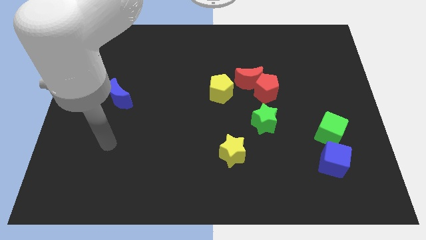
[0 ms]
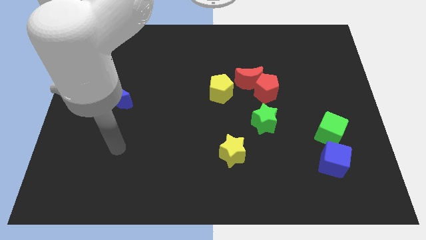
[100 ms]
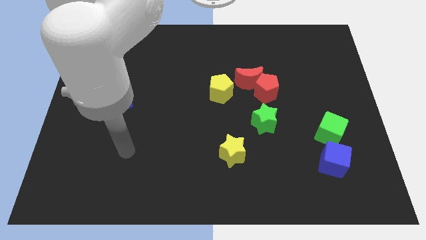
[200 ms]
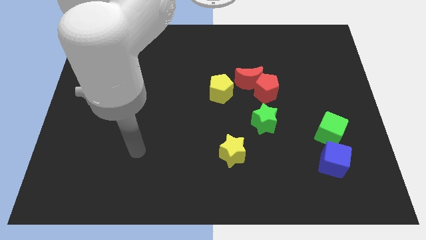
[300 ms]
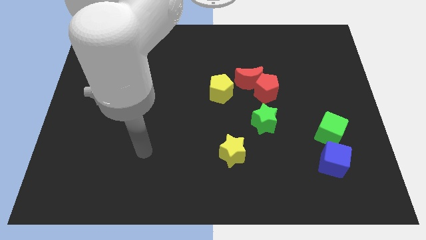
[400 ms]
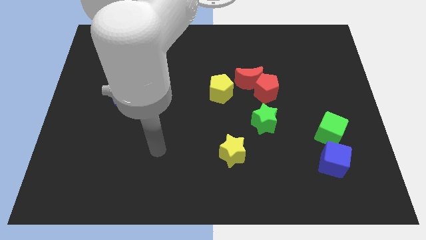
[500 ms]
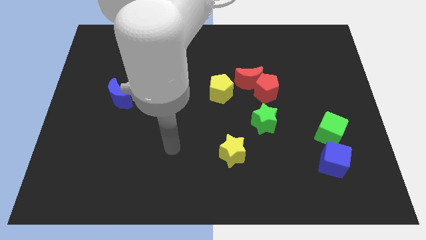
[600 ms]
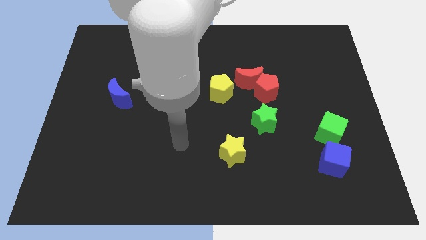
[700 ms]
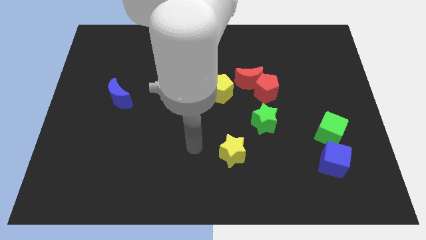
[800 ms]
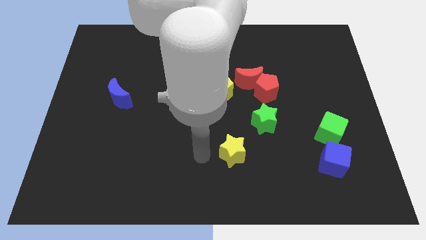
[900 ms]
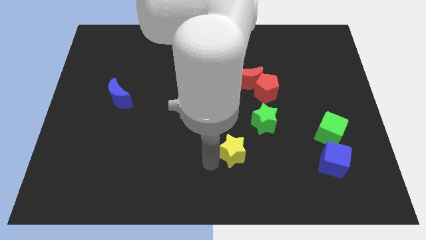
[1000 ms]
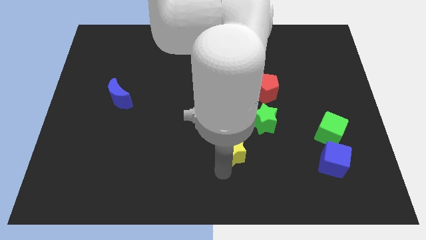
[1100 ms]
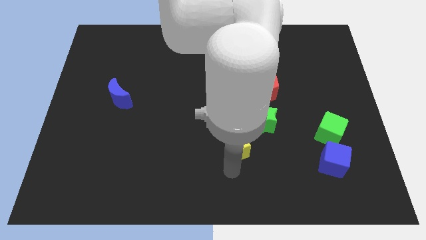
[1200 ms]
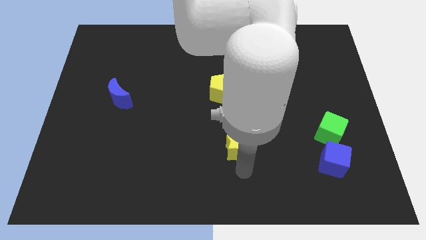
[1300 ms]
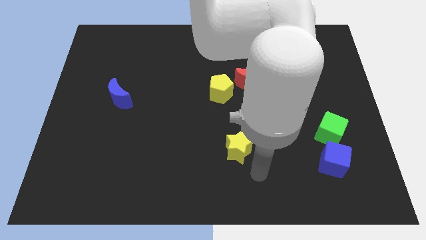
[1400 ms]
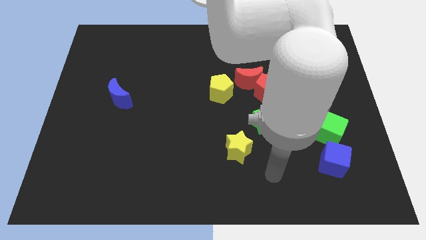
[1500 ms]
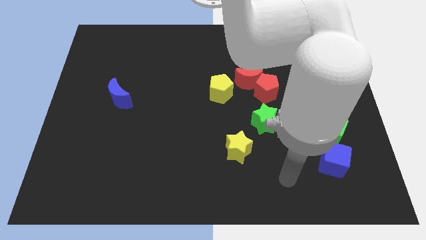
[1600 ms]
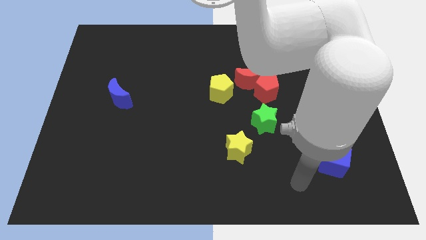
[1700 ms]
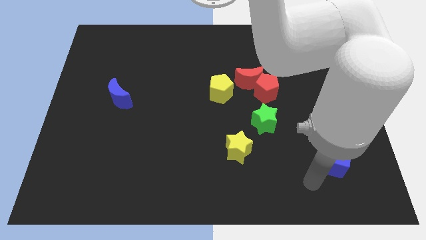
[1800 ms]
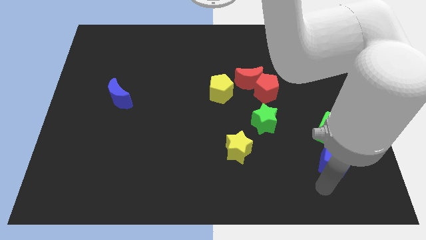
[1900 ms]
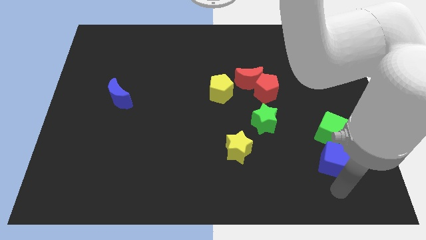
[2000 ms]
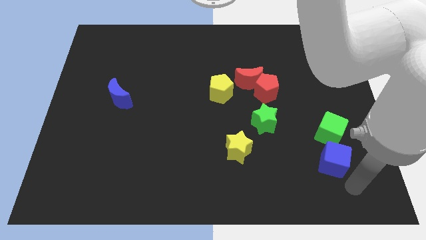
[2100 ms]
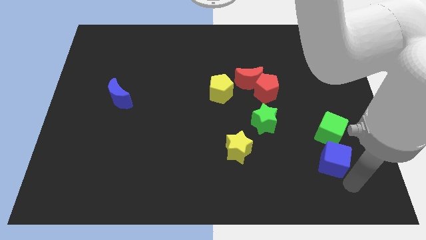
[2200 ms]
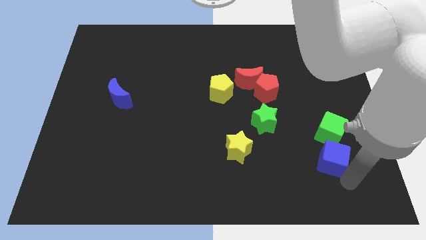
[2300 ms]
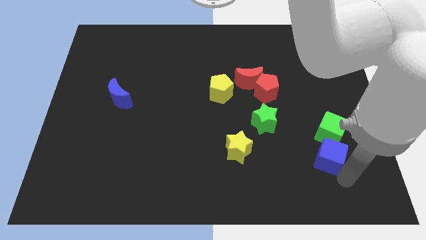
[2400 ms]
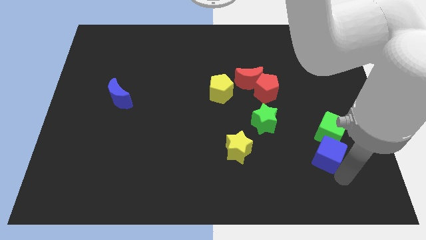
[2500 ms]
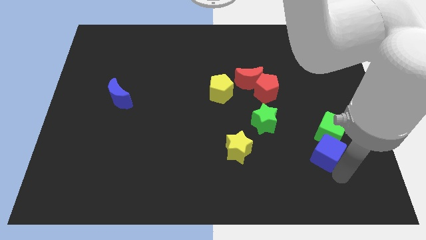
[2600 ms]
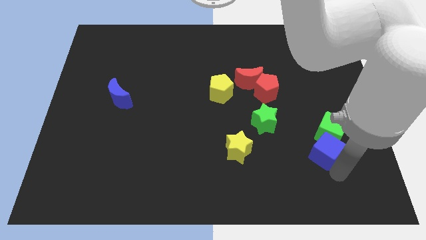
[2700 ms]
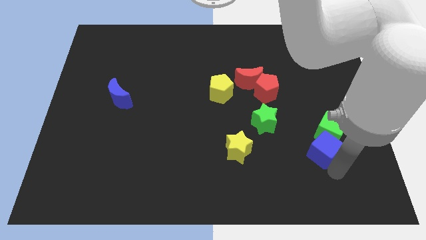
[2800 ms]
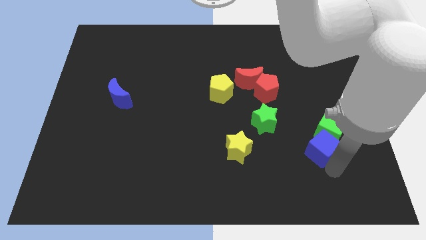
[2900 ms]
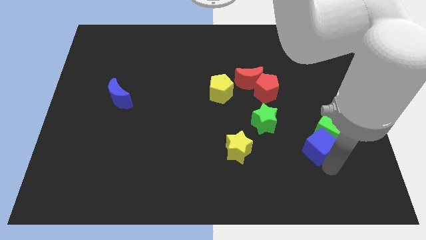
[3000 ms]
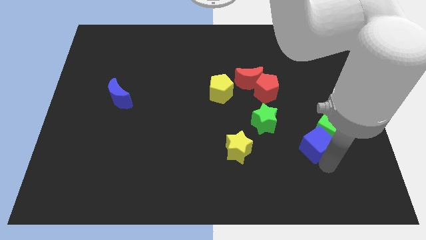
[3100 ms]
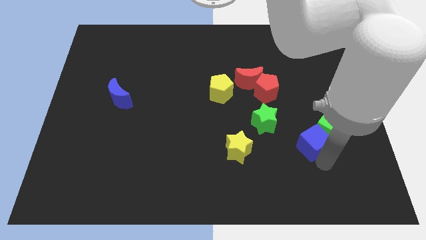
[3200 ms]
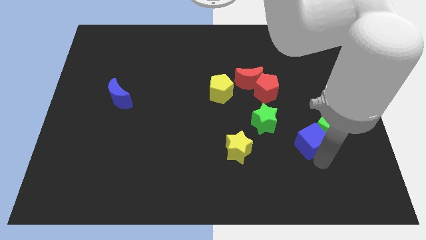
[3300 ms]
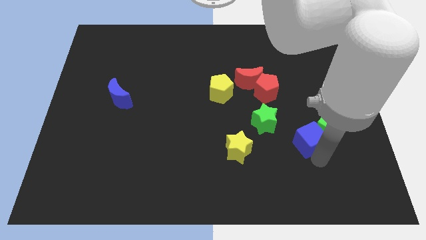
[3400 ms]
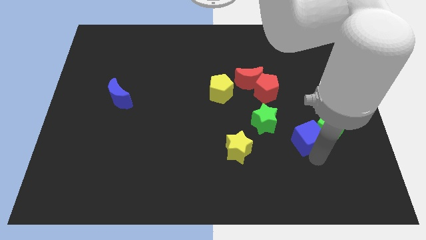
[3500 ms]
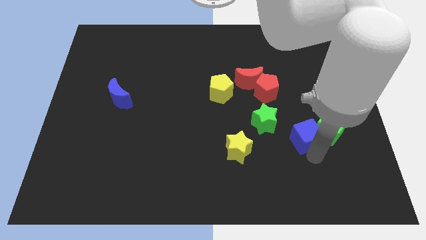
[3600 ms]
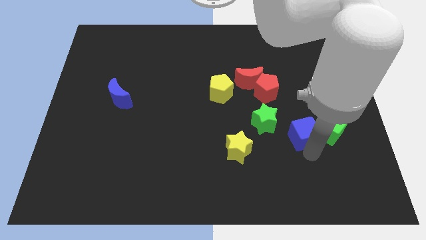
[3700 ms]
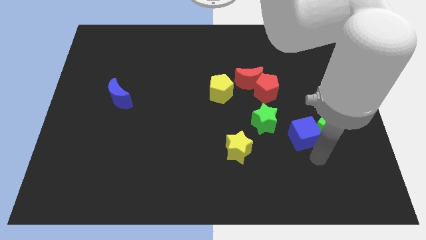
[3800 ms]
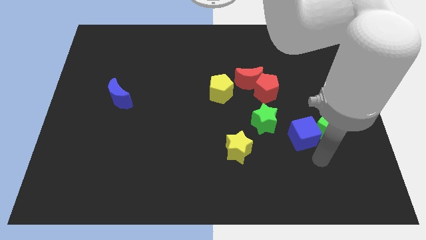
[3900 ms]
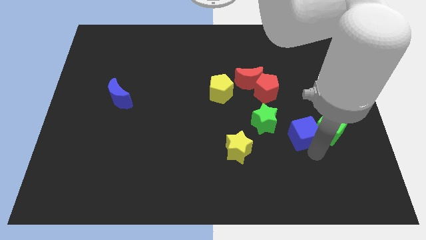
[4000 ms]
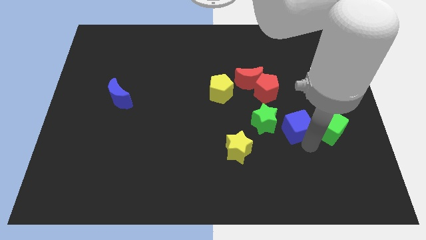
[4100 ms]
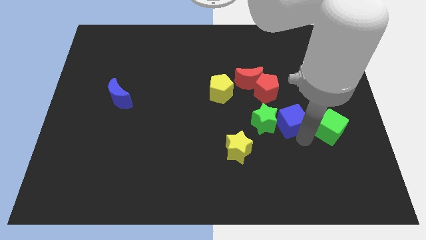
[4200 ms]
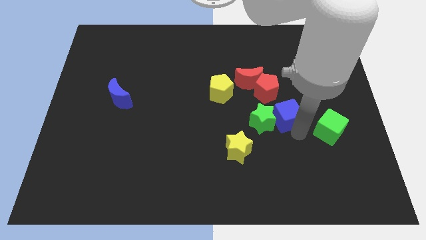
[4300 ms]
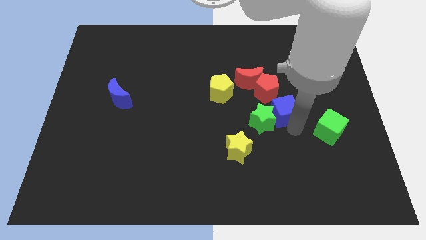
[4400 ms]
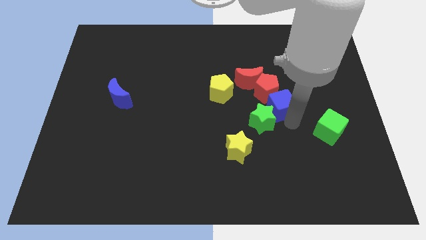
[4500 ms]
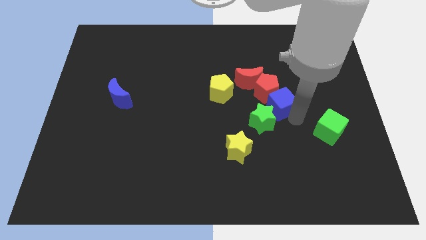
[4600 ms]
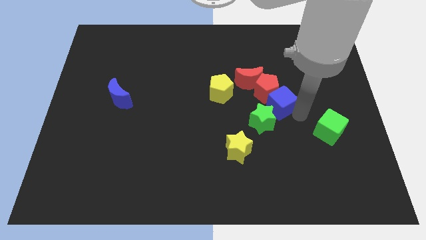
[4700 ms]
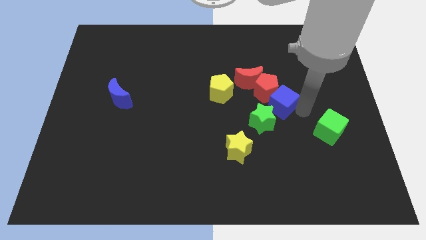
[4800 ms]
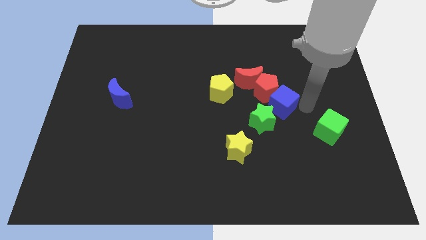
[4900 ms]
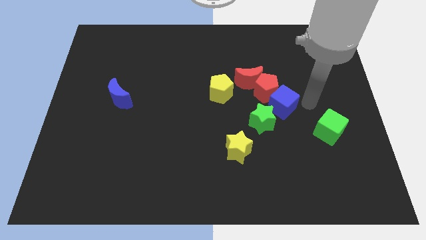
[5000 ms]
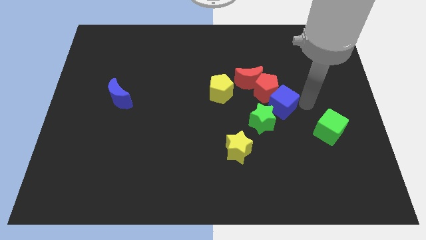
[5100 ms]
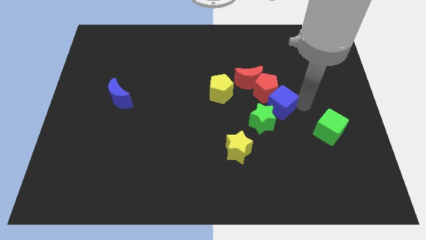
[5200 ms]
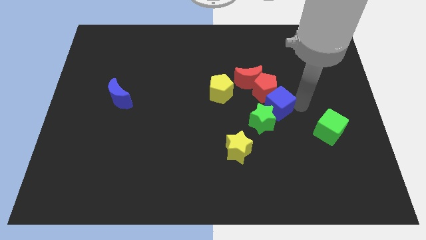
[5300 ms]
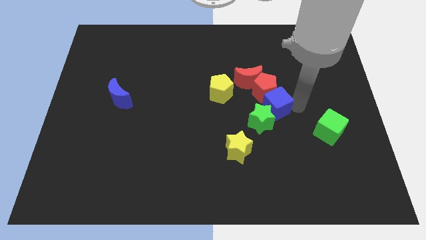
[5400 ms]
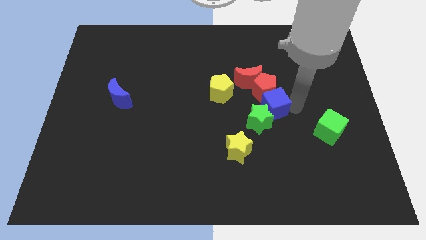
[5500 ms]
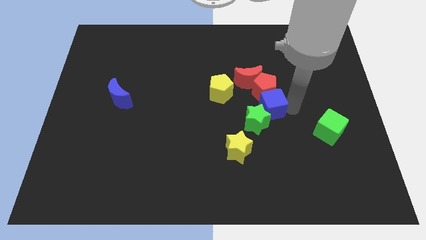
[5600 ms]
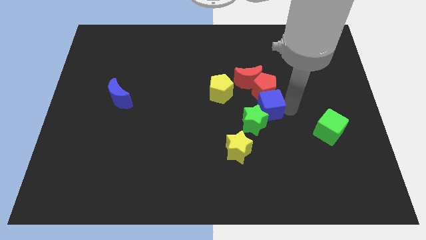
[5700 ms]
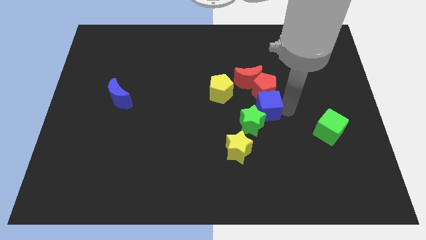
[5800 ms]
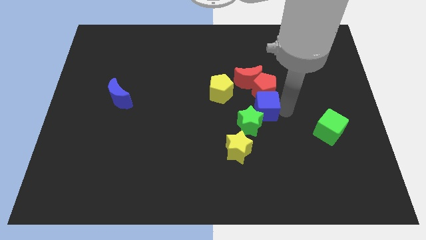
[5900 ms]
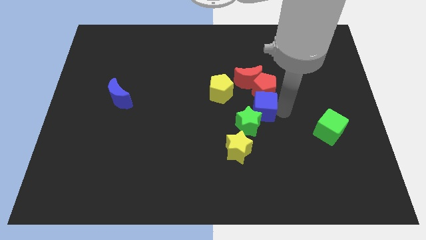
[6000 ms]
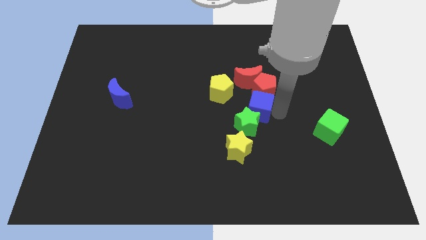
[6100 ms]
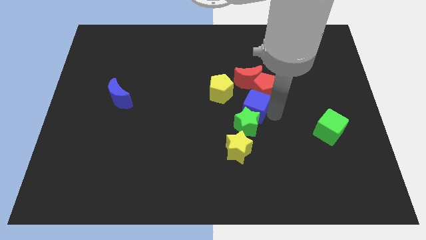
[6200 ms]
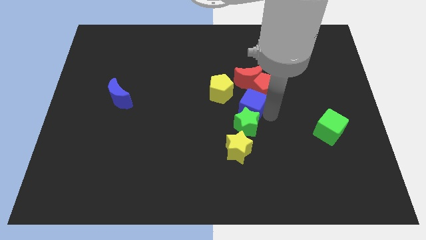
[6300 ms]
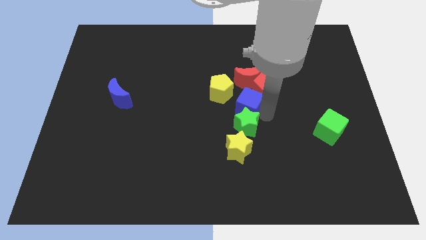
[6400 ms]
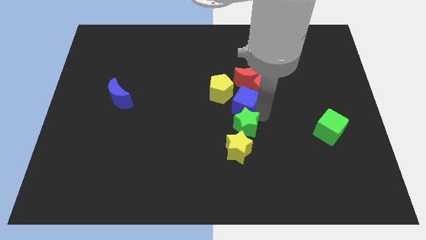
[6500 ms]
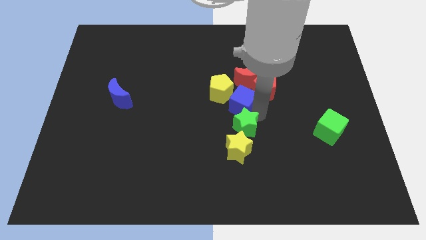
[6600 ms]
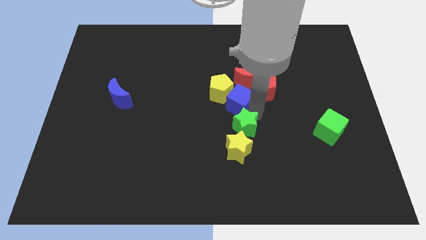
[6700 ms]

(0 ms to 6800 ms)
move the blue cube next to the yellow pentagon
